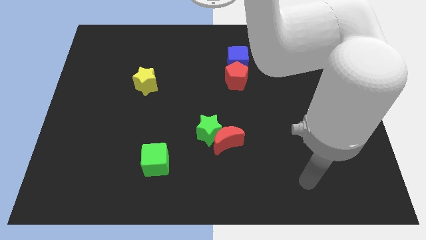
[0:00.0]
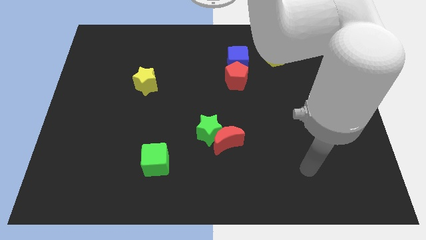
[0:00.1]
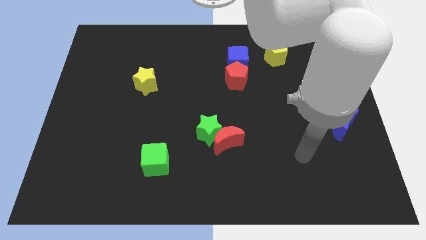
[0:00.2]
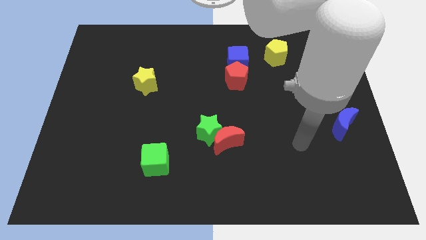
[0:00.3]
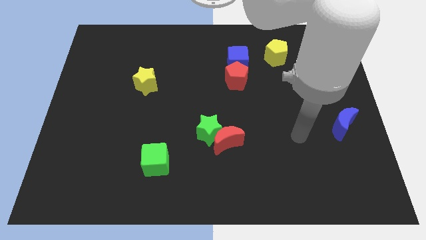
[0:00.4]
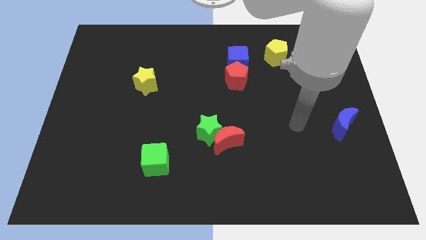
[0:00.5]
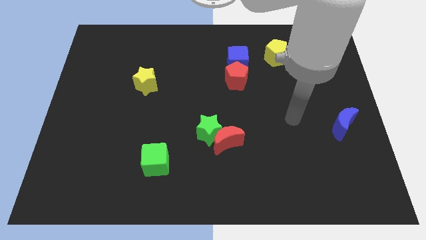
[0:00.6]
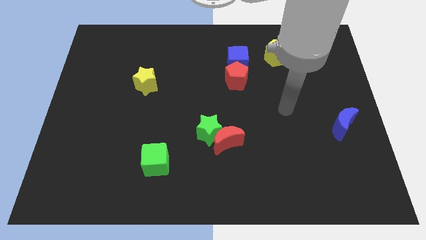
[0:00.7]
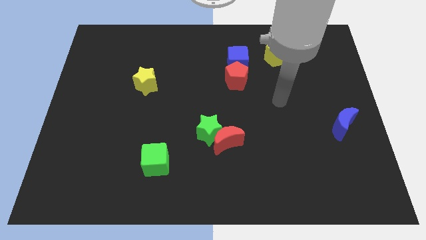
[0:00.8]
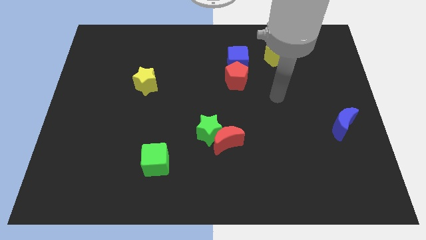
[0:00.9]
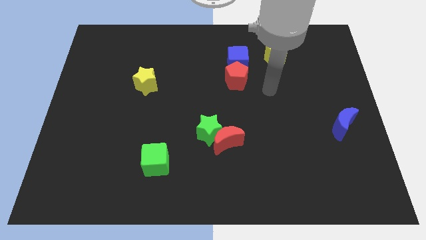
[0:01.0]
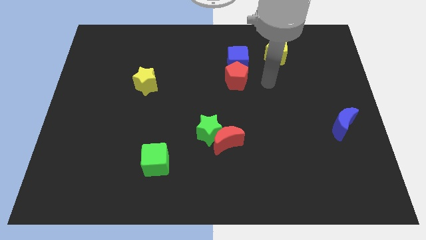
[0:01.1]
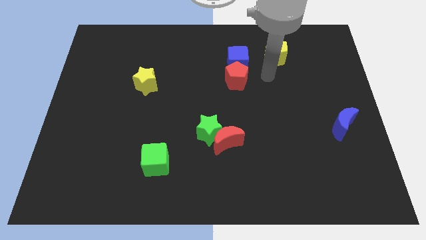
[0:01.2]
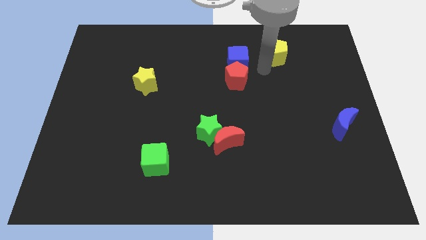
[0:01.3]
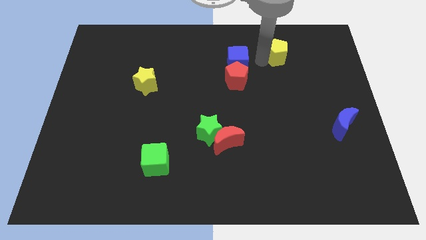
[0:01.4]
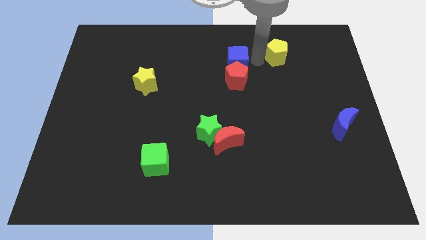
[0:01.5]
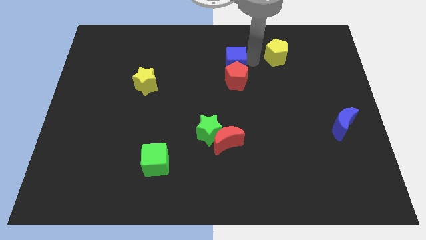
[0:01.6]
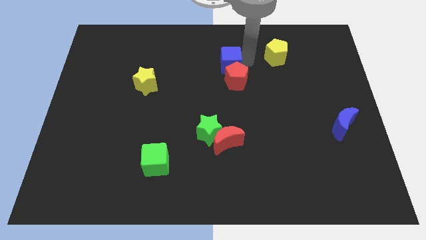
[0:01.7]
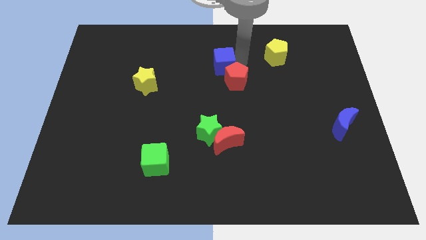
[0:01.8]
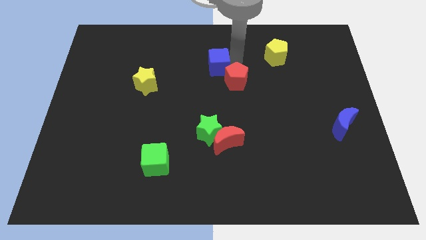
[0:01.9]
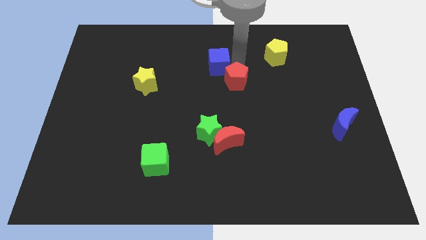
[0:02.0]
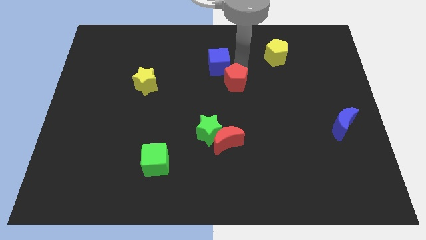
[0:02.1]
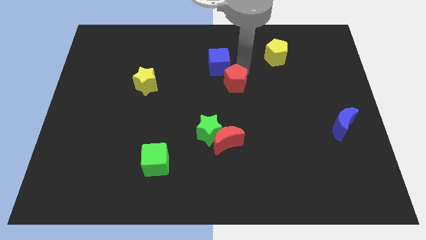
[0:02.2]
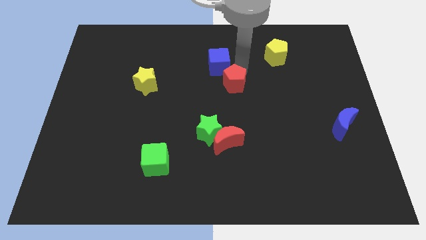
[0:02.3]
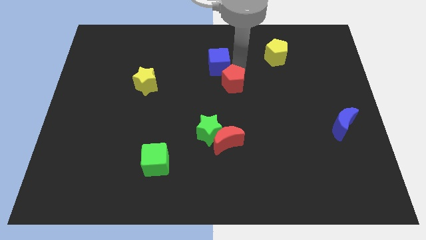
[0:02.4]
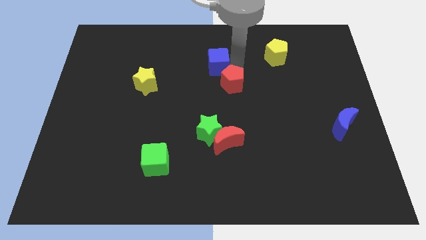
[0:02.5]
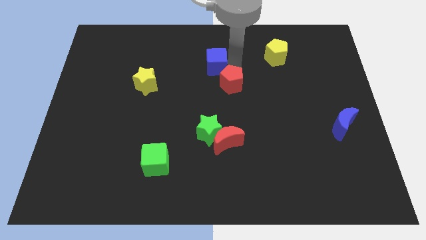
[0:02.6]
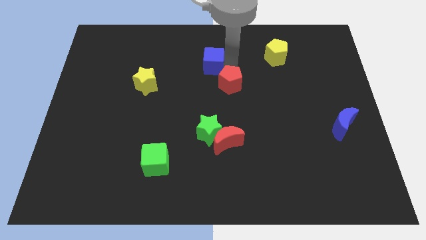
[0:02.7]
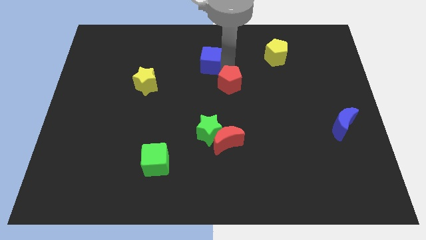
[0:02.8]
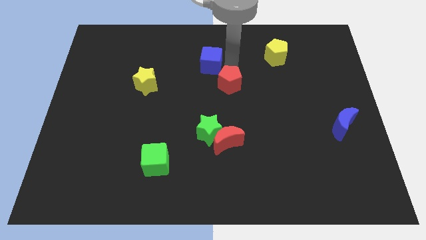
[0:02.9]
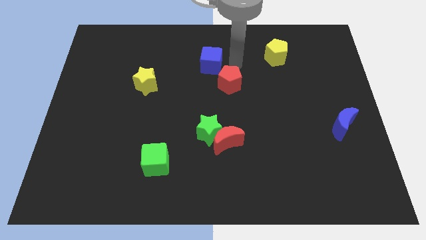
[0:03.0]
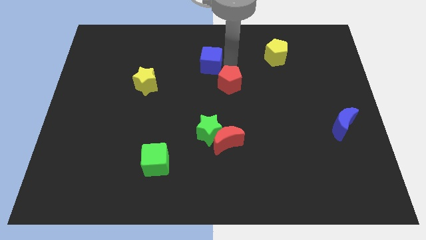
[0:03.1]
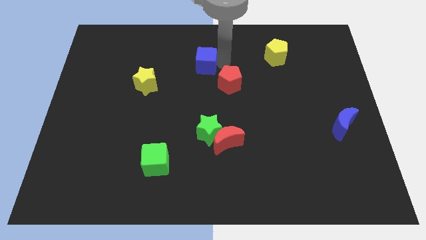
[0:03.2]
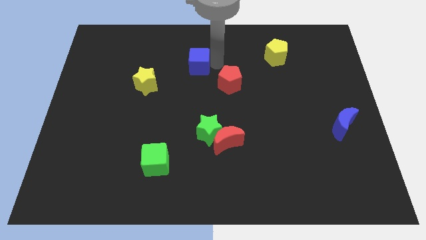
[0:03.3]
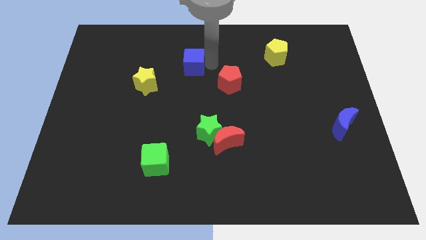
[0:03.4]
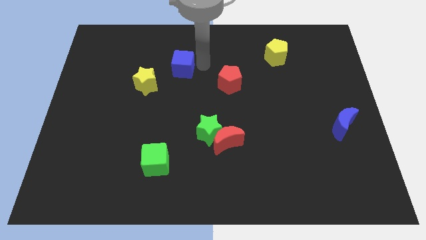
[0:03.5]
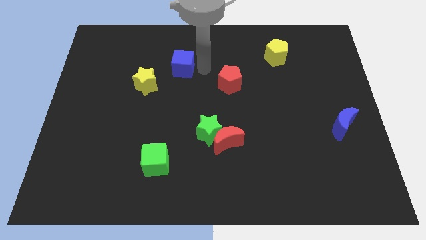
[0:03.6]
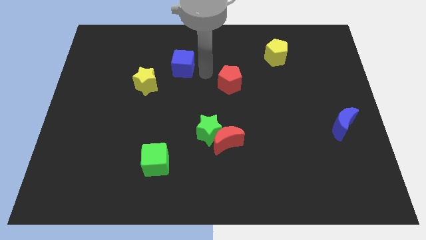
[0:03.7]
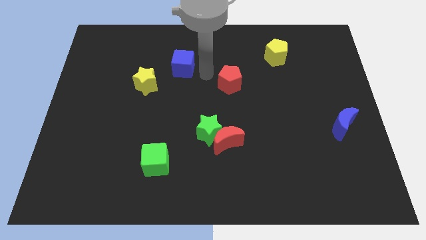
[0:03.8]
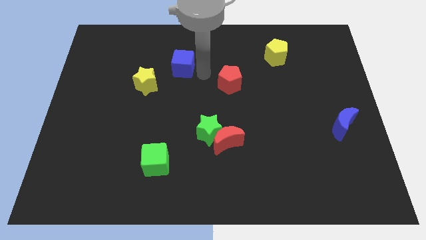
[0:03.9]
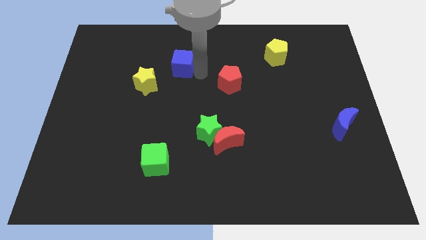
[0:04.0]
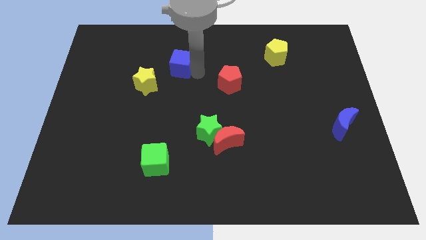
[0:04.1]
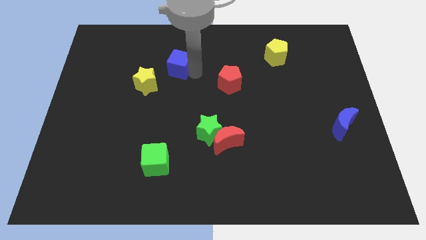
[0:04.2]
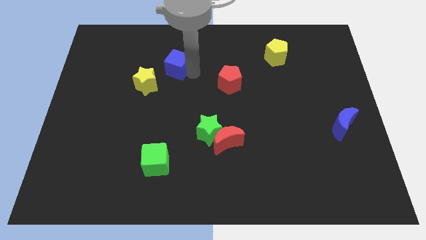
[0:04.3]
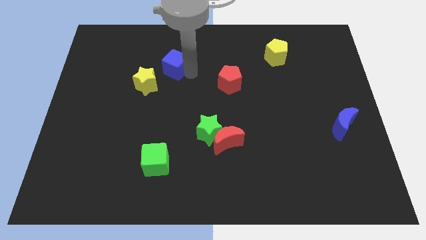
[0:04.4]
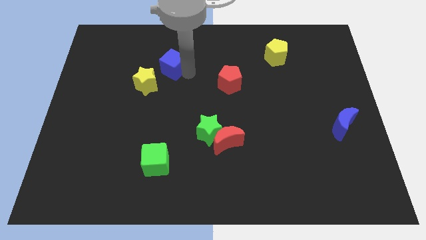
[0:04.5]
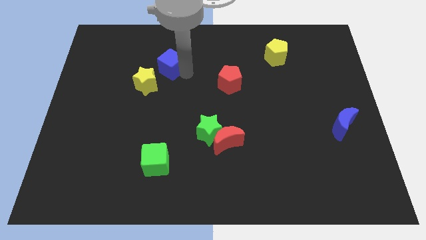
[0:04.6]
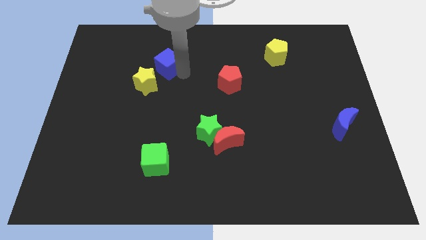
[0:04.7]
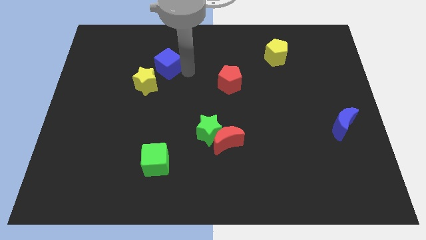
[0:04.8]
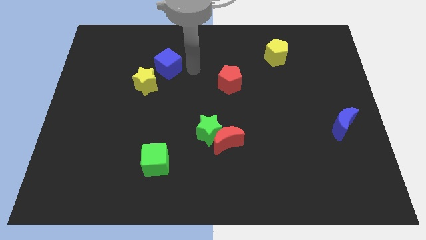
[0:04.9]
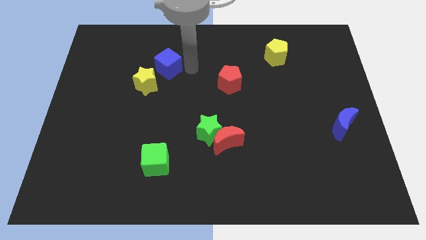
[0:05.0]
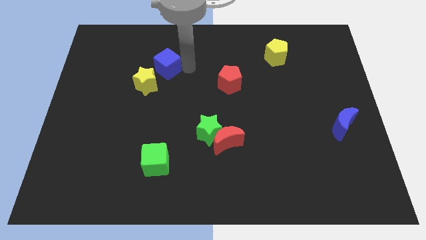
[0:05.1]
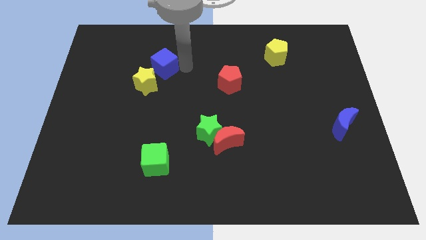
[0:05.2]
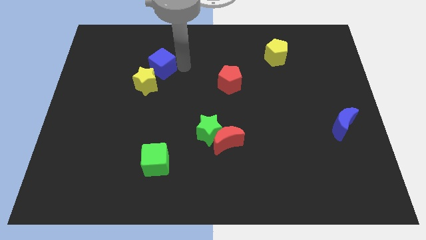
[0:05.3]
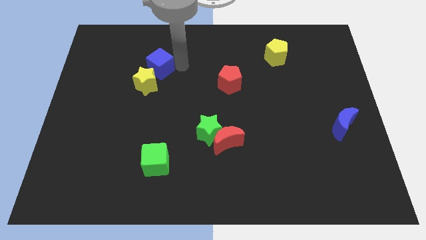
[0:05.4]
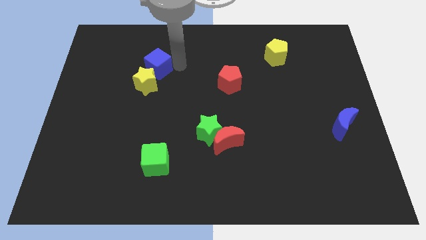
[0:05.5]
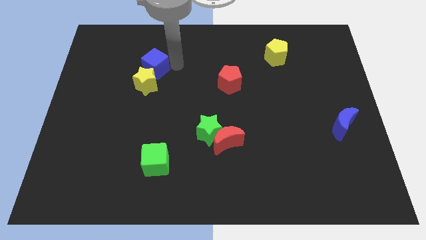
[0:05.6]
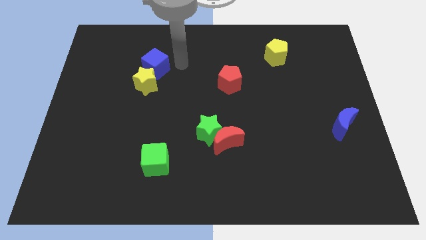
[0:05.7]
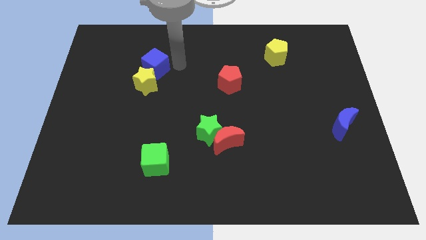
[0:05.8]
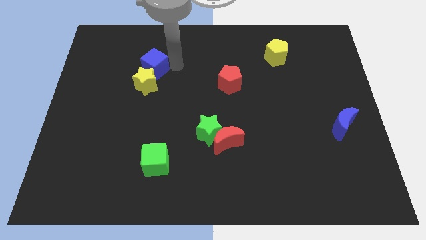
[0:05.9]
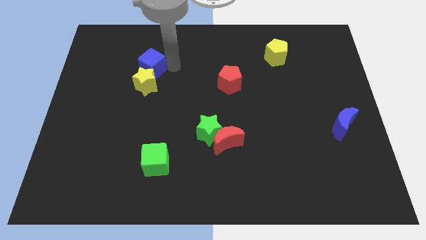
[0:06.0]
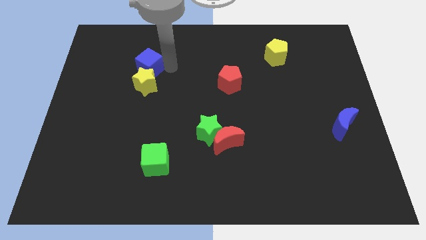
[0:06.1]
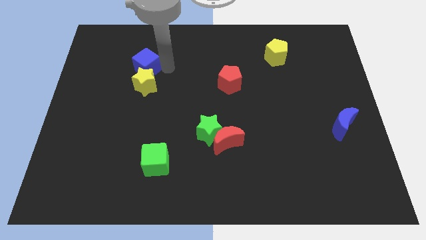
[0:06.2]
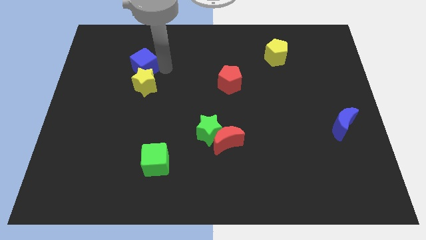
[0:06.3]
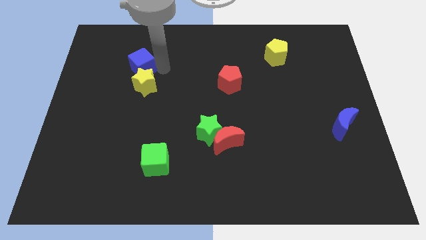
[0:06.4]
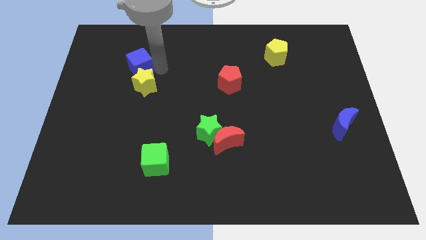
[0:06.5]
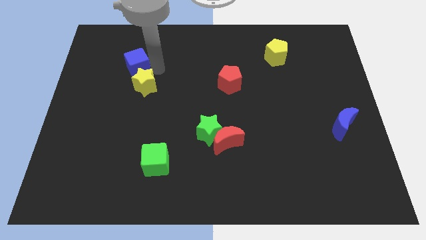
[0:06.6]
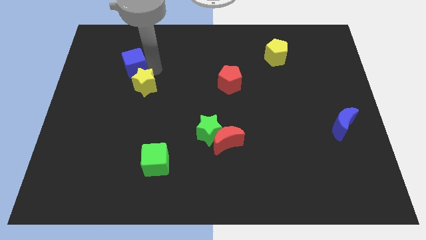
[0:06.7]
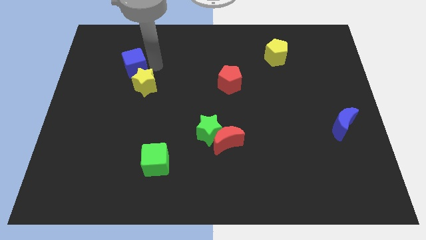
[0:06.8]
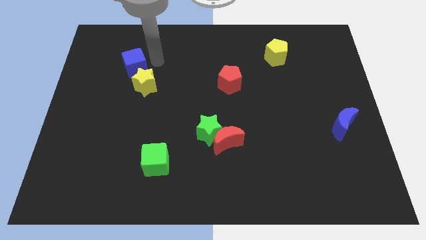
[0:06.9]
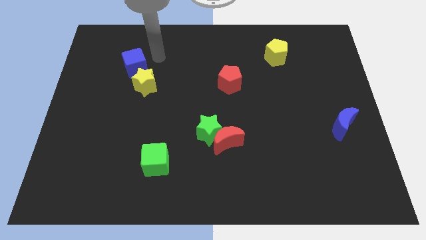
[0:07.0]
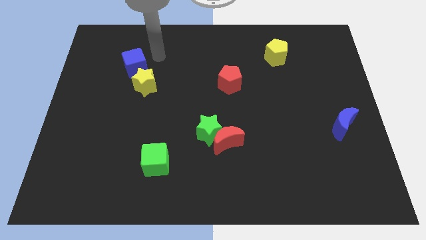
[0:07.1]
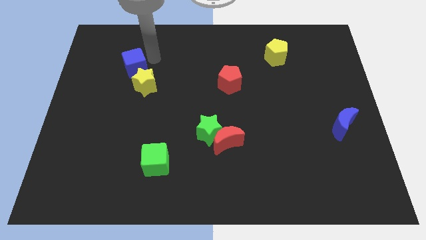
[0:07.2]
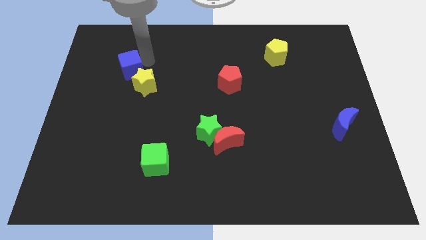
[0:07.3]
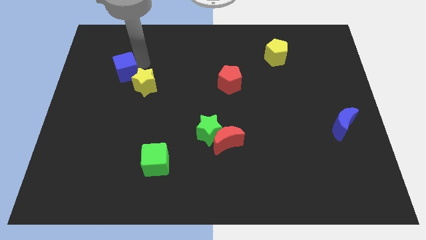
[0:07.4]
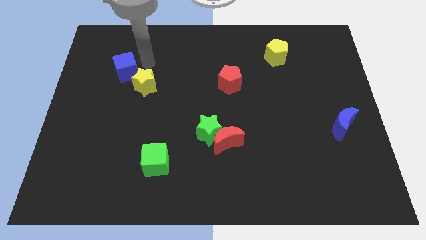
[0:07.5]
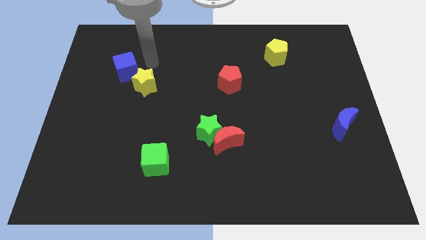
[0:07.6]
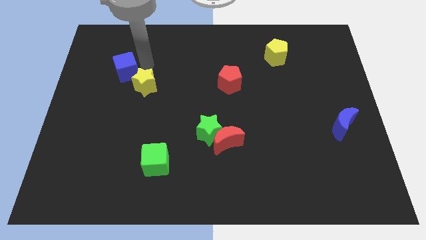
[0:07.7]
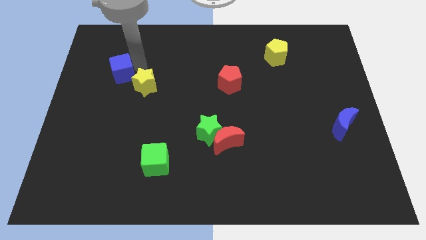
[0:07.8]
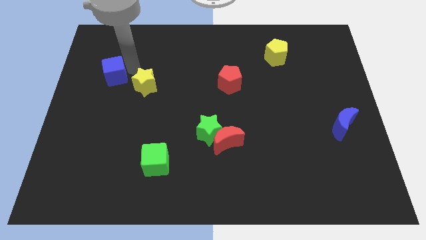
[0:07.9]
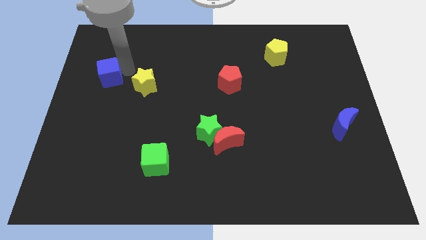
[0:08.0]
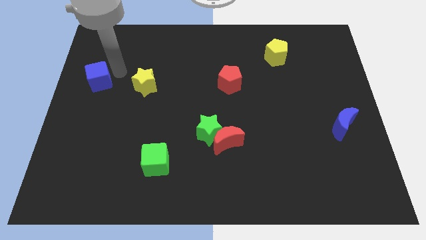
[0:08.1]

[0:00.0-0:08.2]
move the blue cube to the center left
